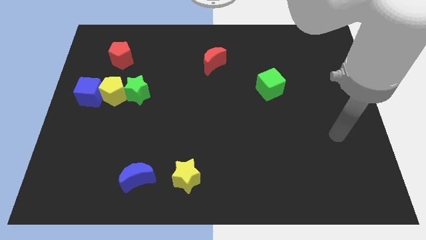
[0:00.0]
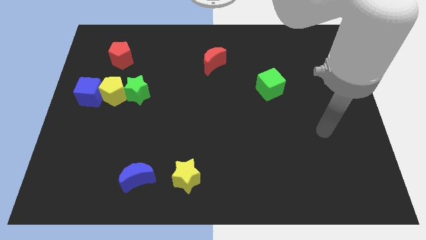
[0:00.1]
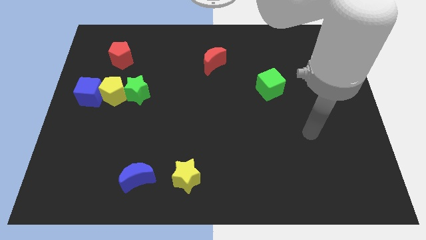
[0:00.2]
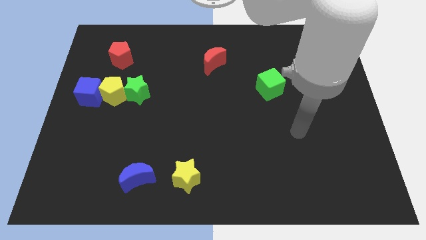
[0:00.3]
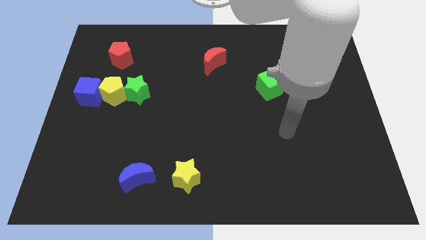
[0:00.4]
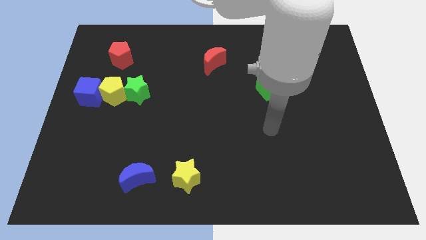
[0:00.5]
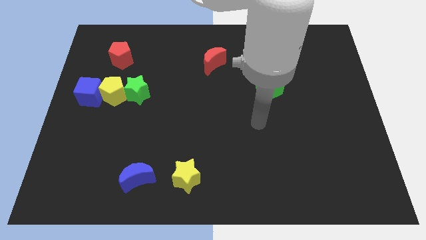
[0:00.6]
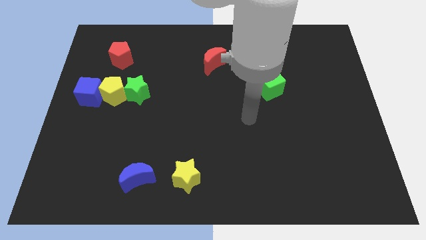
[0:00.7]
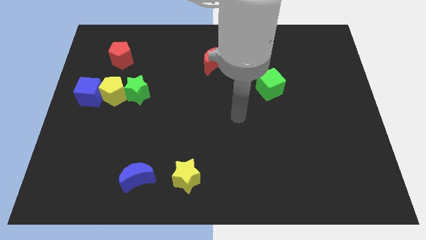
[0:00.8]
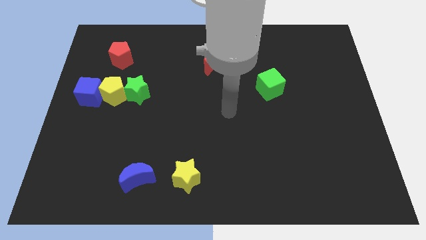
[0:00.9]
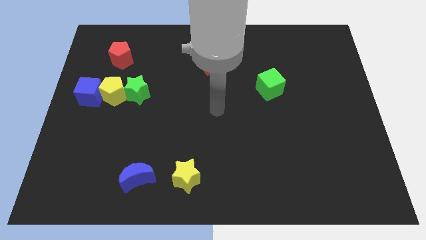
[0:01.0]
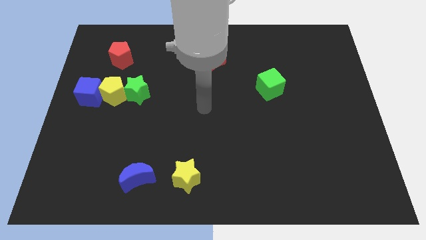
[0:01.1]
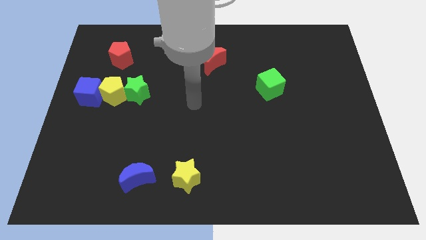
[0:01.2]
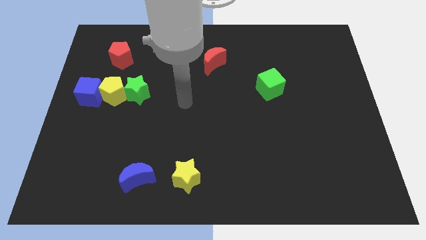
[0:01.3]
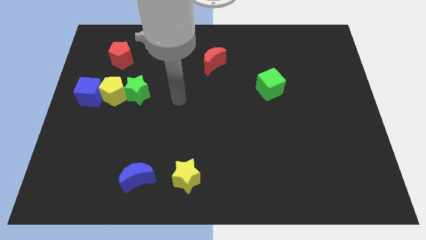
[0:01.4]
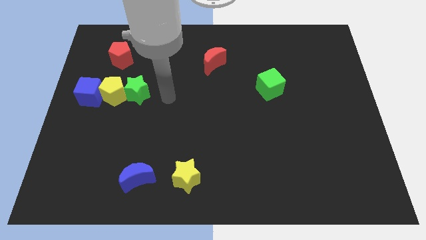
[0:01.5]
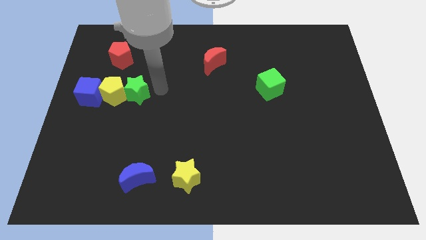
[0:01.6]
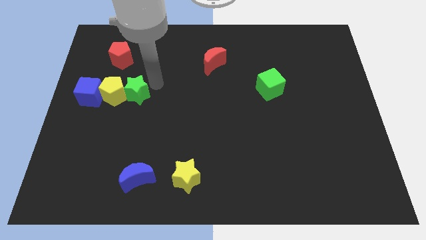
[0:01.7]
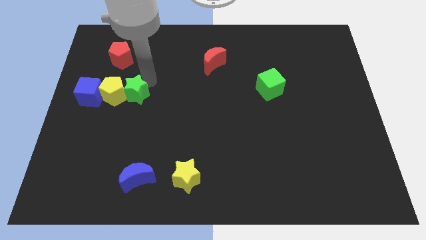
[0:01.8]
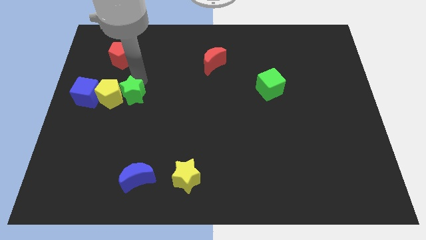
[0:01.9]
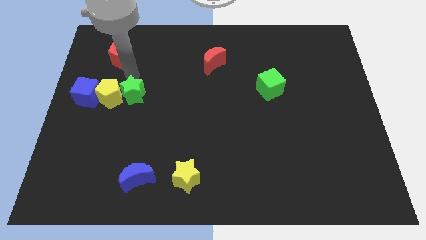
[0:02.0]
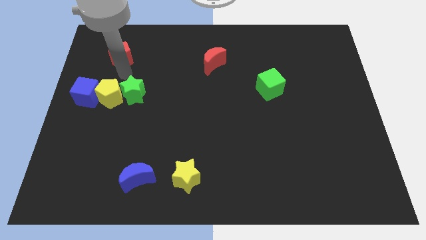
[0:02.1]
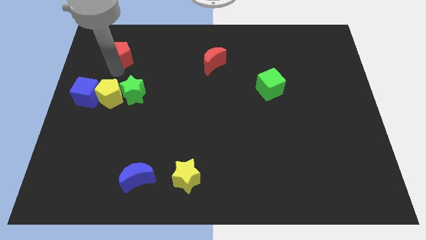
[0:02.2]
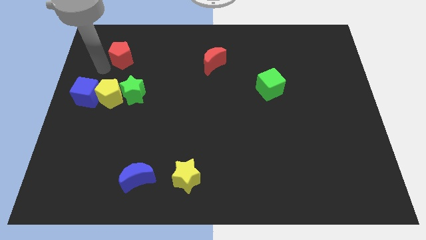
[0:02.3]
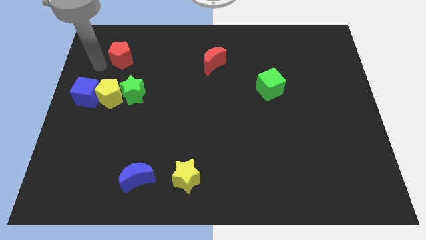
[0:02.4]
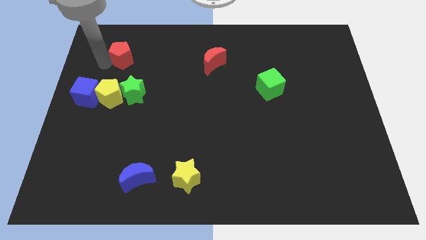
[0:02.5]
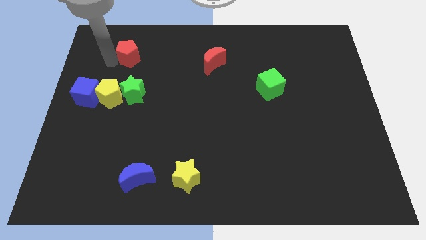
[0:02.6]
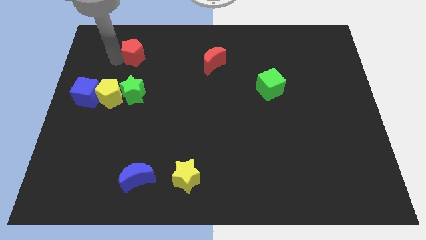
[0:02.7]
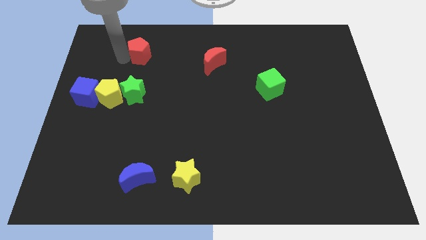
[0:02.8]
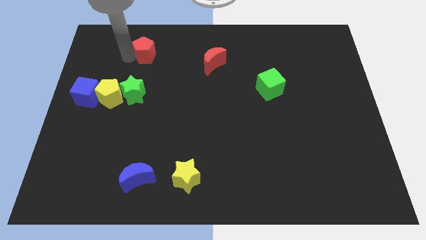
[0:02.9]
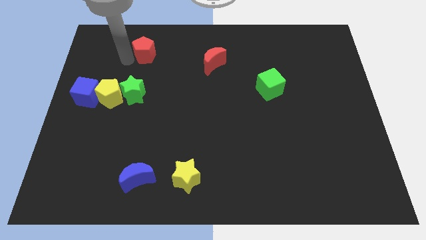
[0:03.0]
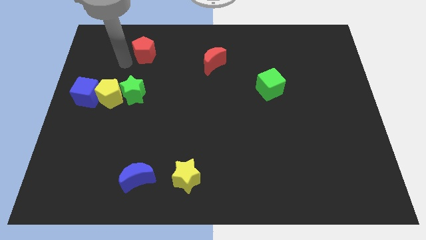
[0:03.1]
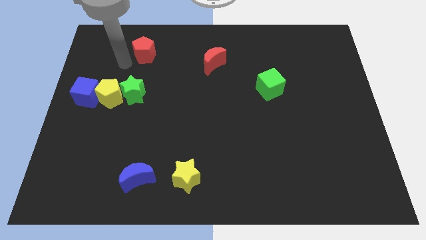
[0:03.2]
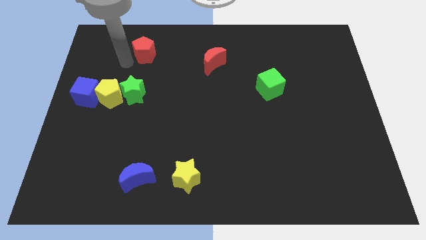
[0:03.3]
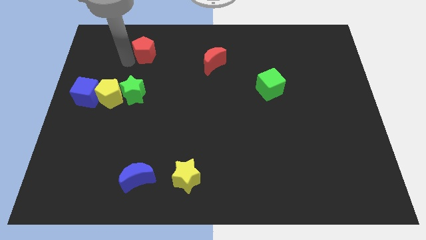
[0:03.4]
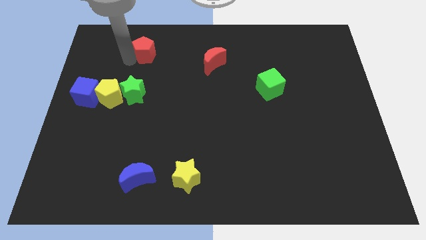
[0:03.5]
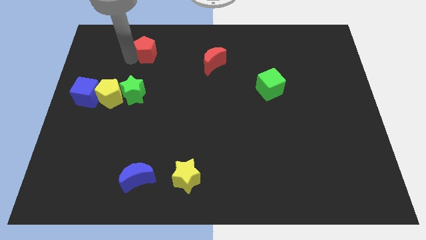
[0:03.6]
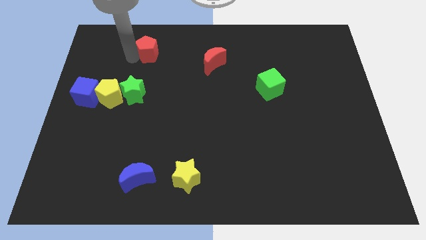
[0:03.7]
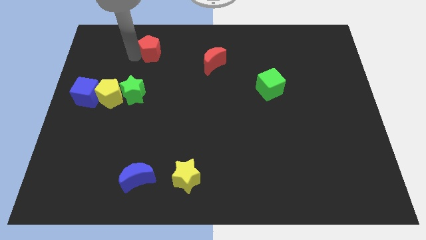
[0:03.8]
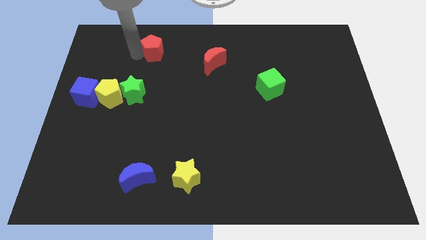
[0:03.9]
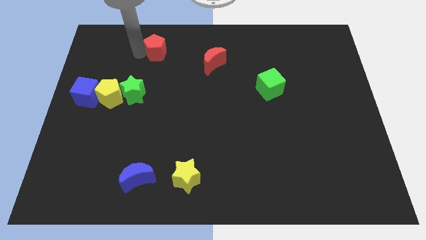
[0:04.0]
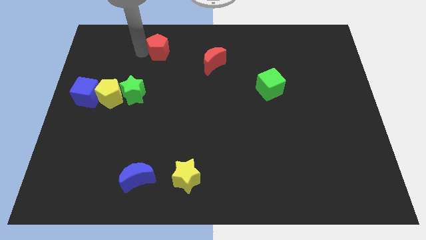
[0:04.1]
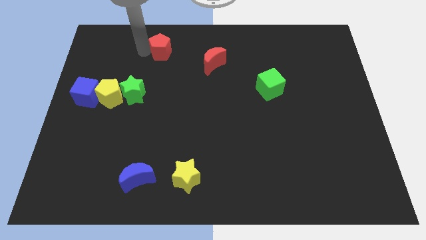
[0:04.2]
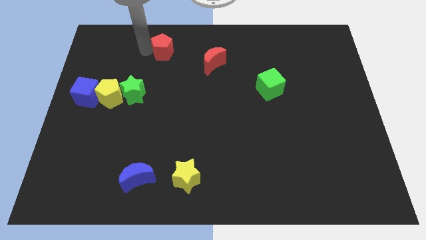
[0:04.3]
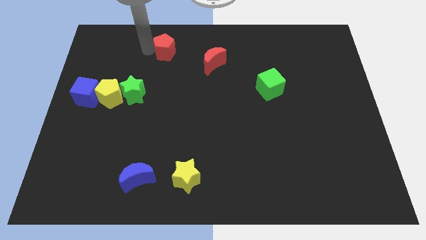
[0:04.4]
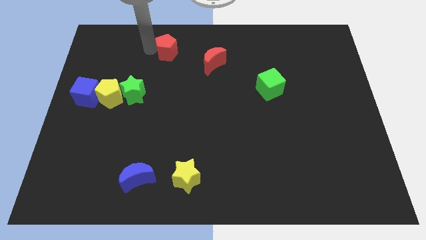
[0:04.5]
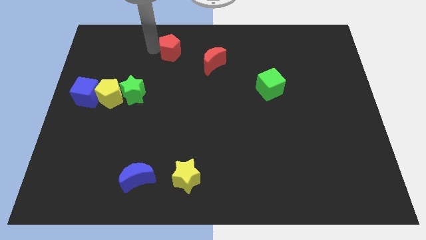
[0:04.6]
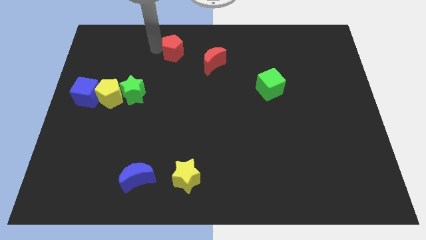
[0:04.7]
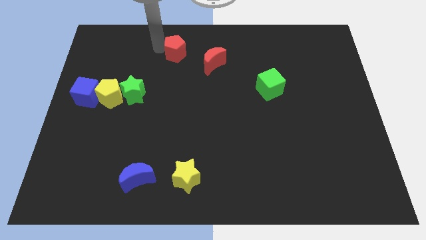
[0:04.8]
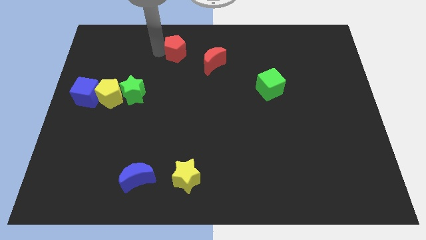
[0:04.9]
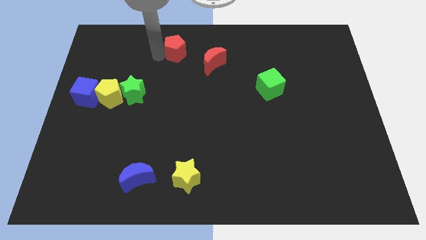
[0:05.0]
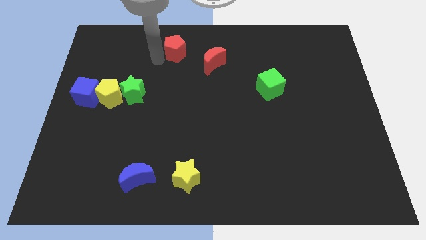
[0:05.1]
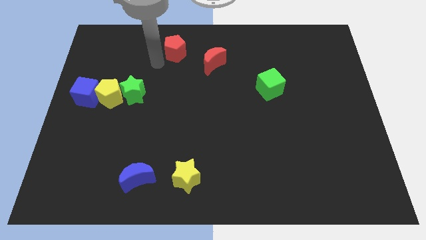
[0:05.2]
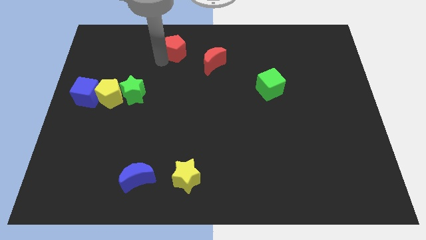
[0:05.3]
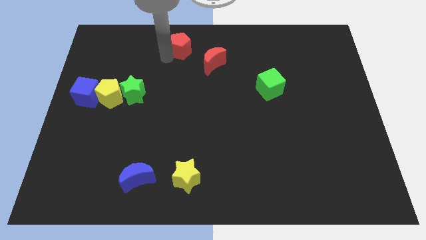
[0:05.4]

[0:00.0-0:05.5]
push the red pentagon to the towards your base

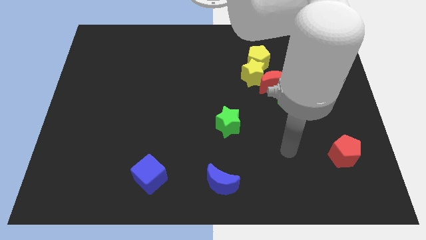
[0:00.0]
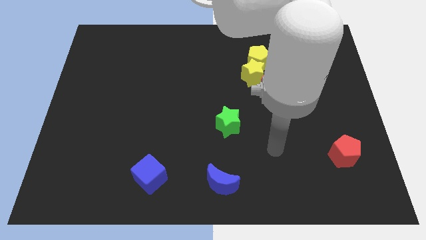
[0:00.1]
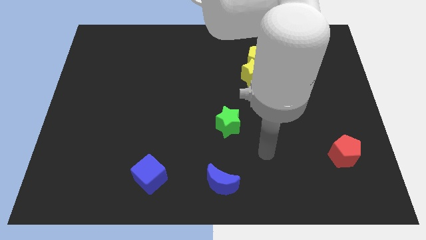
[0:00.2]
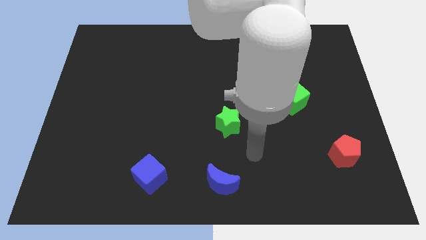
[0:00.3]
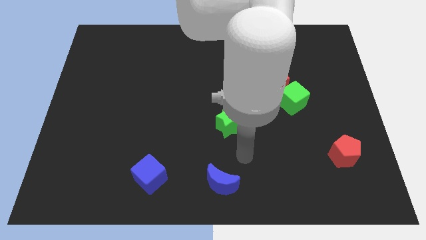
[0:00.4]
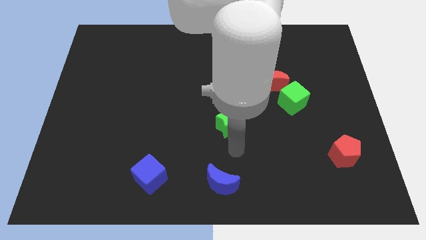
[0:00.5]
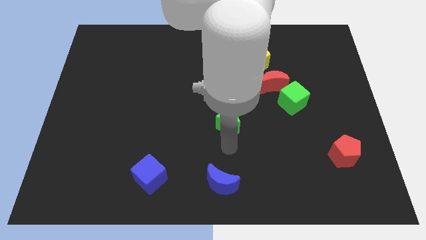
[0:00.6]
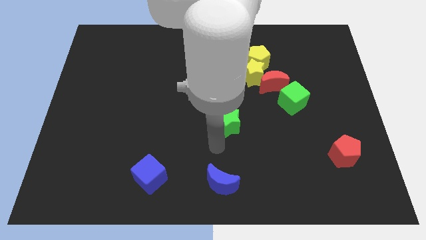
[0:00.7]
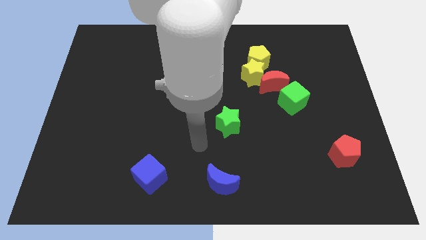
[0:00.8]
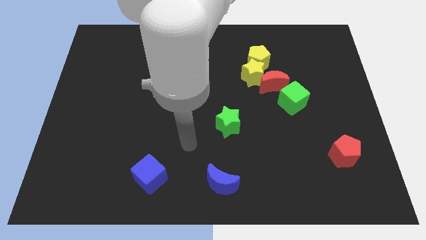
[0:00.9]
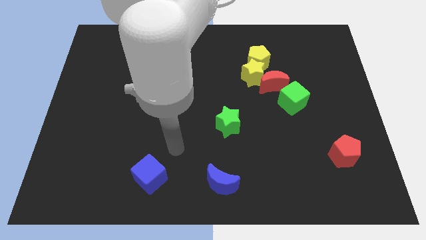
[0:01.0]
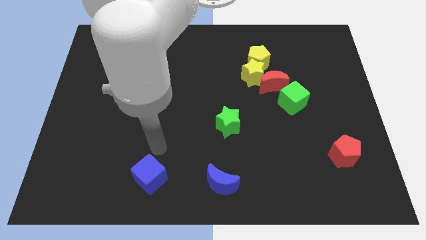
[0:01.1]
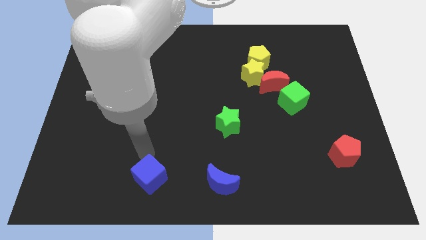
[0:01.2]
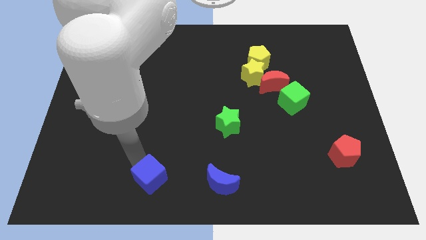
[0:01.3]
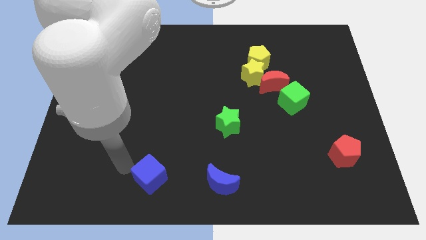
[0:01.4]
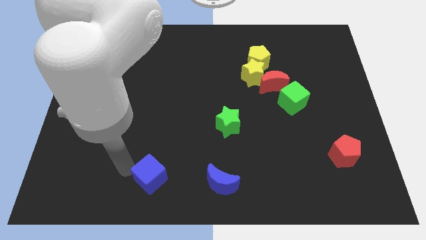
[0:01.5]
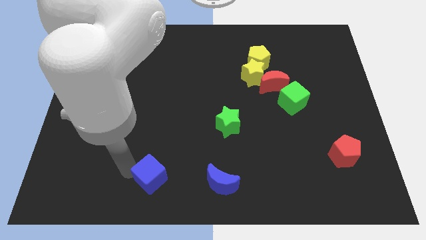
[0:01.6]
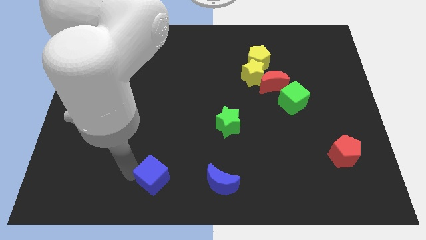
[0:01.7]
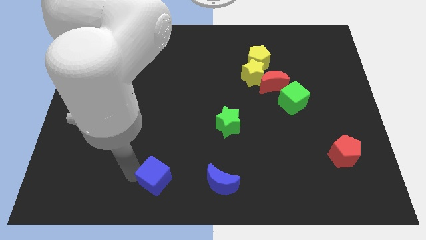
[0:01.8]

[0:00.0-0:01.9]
slide the blue cube to the bottom side
